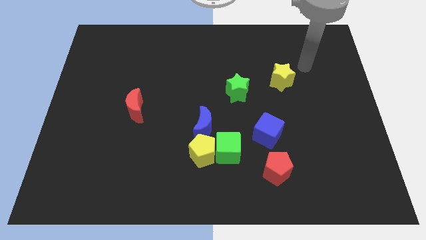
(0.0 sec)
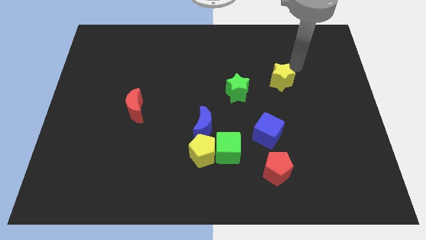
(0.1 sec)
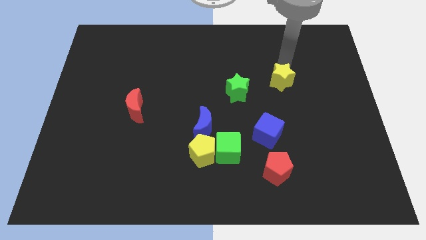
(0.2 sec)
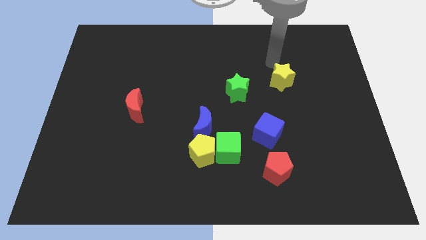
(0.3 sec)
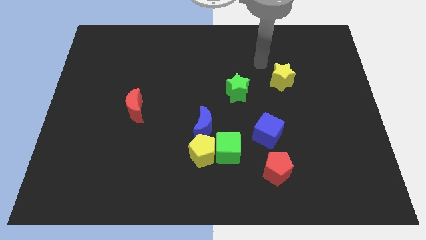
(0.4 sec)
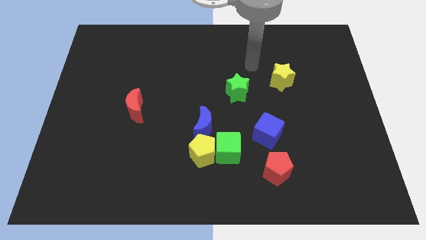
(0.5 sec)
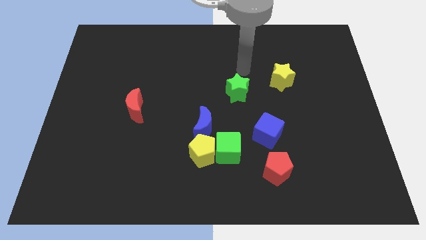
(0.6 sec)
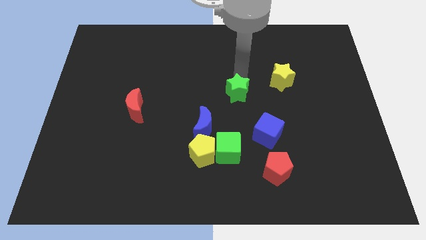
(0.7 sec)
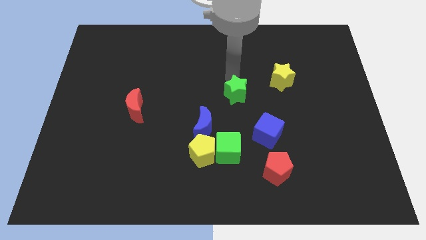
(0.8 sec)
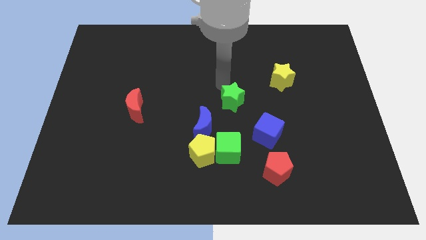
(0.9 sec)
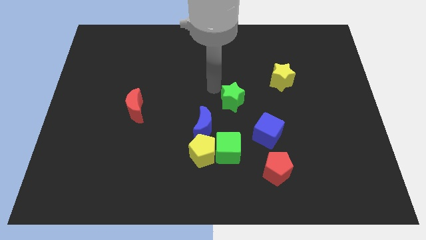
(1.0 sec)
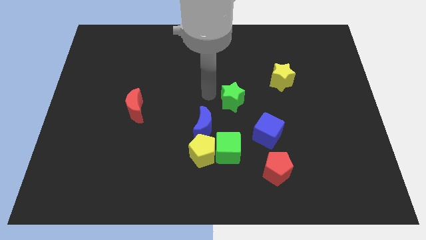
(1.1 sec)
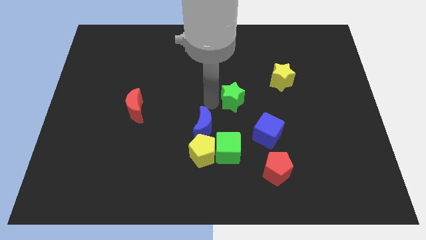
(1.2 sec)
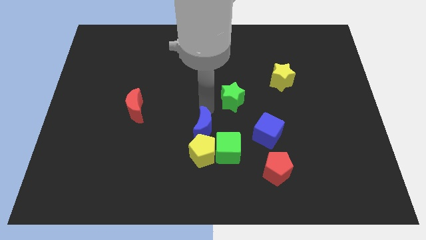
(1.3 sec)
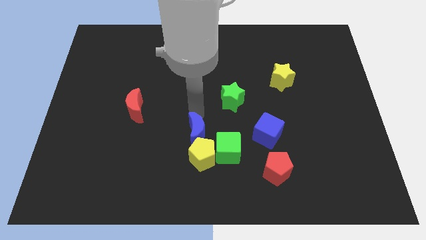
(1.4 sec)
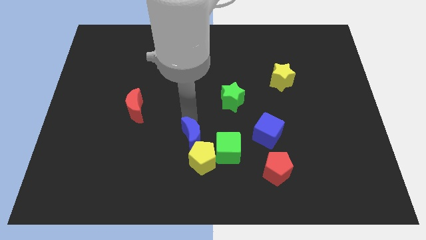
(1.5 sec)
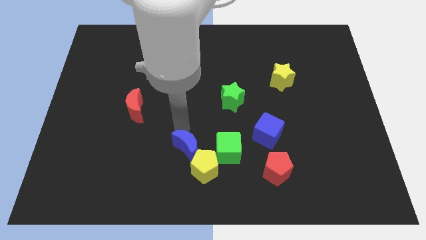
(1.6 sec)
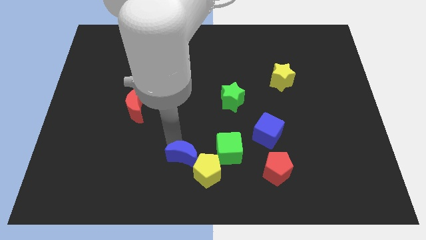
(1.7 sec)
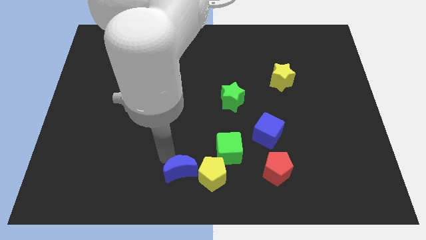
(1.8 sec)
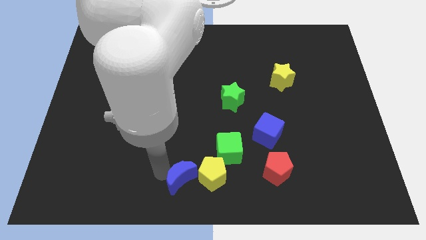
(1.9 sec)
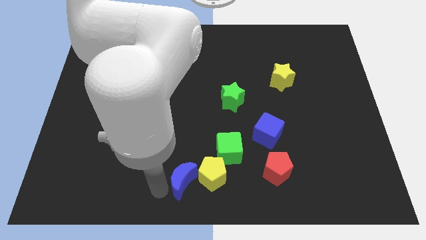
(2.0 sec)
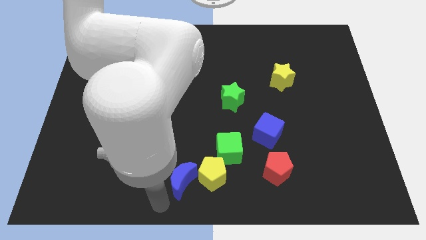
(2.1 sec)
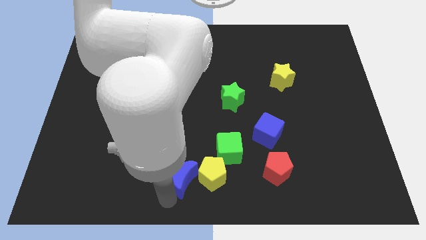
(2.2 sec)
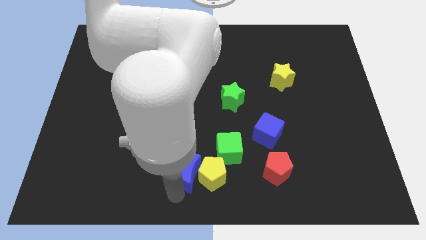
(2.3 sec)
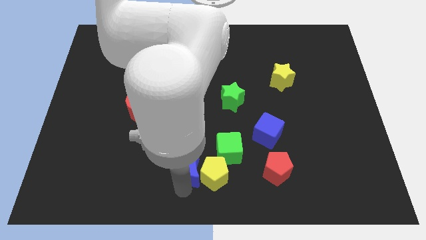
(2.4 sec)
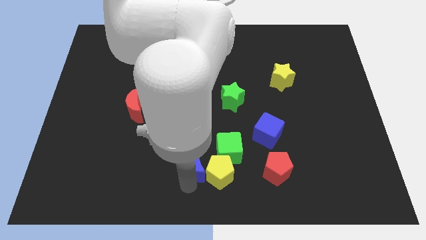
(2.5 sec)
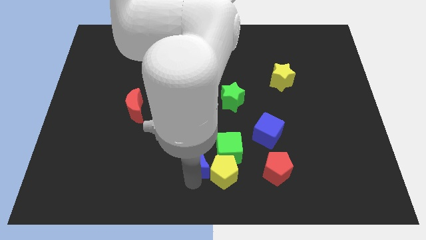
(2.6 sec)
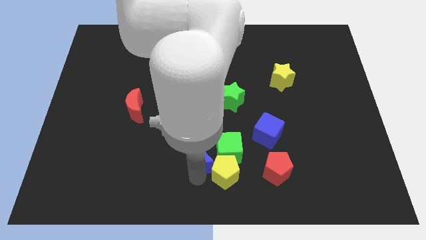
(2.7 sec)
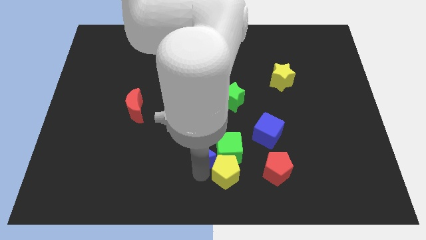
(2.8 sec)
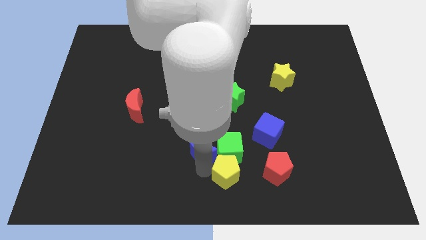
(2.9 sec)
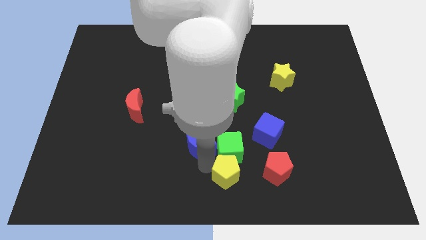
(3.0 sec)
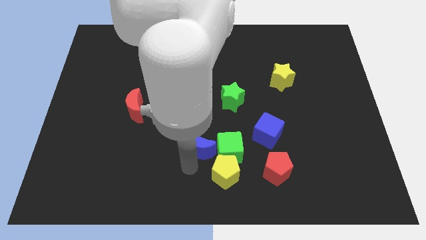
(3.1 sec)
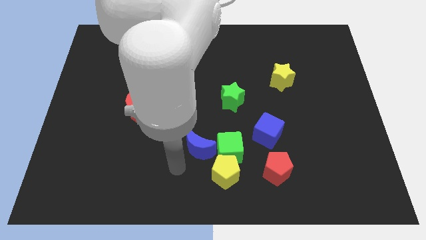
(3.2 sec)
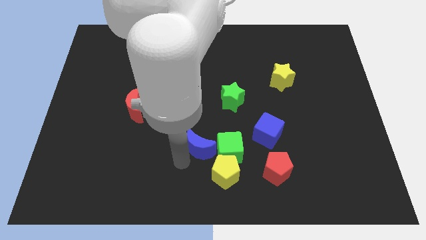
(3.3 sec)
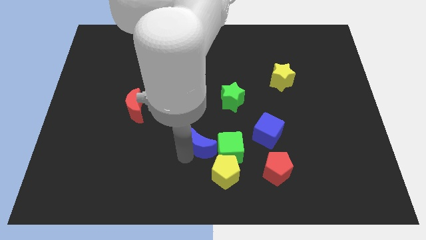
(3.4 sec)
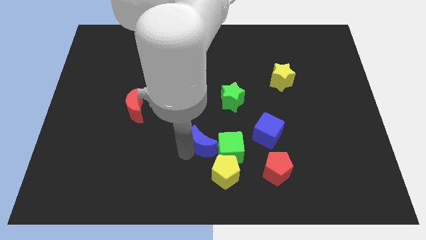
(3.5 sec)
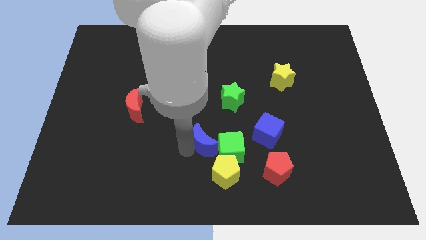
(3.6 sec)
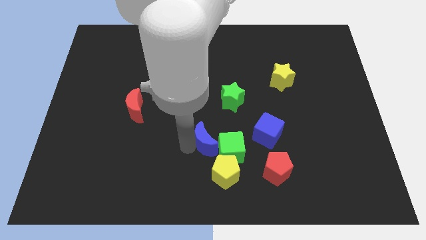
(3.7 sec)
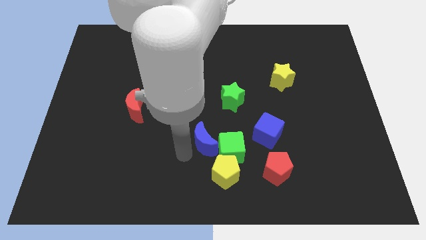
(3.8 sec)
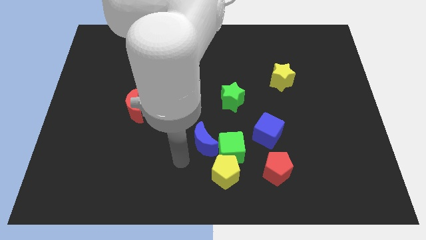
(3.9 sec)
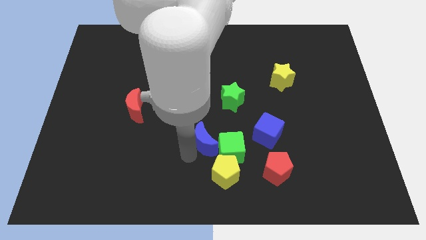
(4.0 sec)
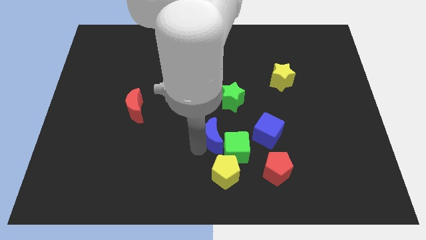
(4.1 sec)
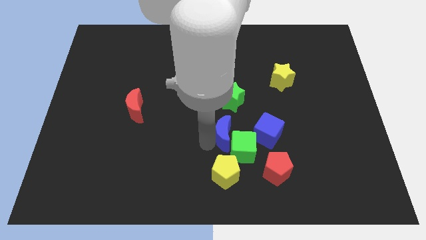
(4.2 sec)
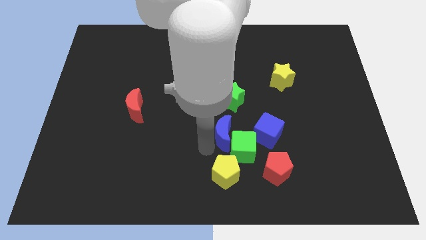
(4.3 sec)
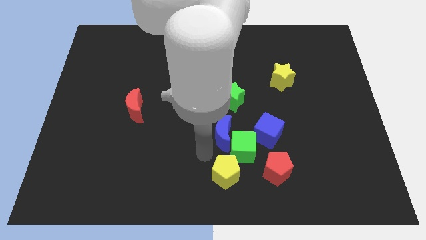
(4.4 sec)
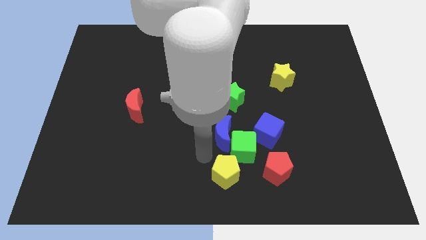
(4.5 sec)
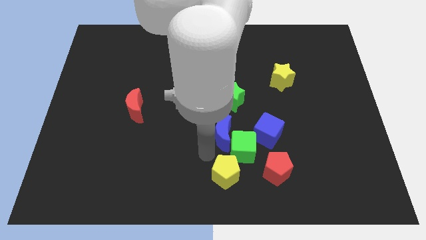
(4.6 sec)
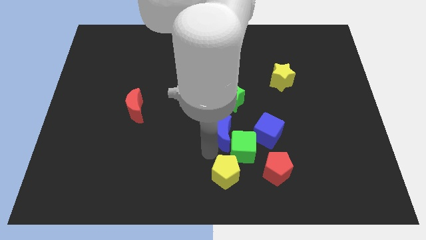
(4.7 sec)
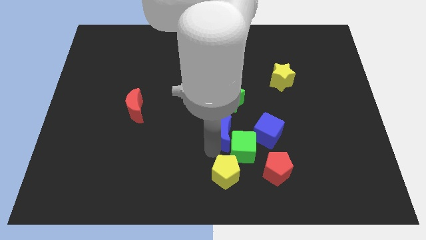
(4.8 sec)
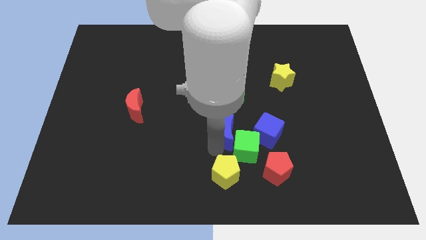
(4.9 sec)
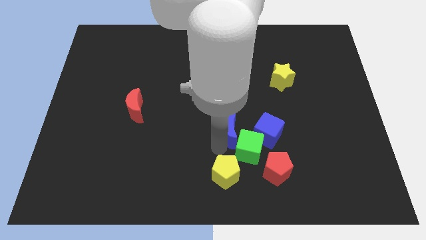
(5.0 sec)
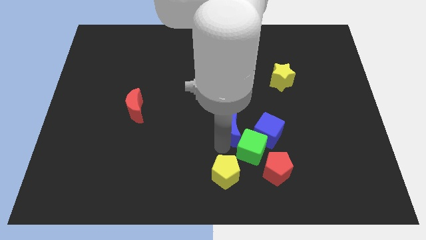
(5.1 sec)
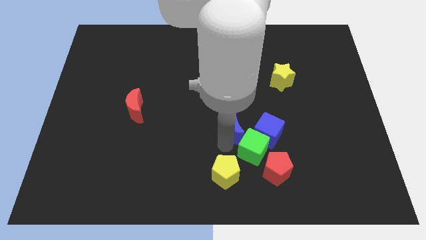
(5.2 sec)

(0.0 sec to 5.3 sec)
push the blue moon diagonally up and to the left of the blue cube

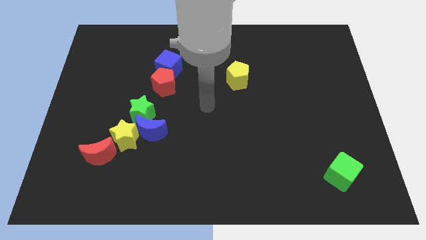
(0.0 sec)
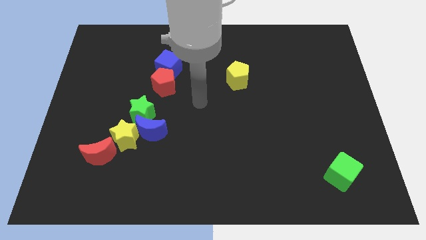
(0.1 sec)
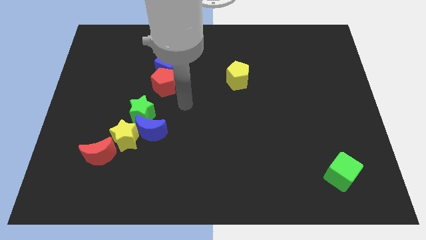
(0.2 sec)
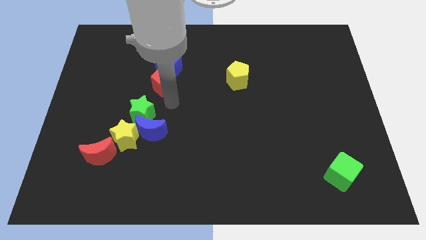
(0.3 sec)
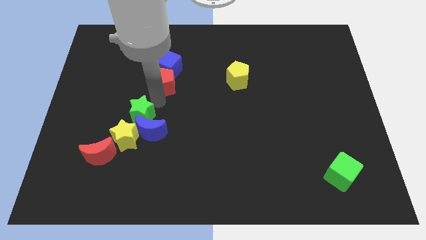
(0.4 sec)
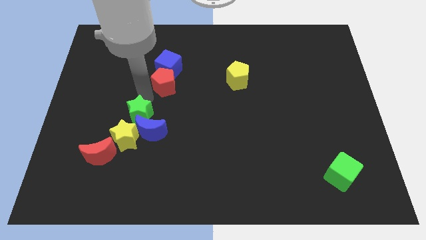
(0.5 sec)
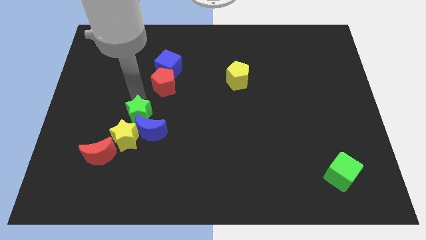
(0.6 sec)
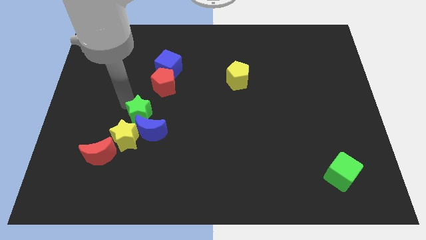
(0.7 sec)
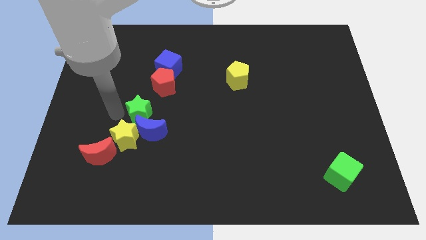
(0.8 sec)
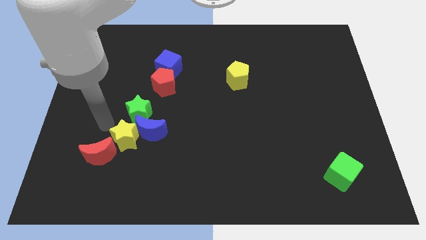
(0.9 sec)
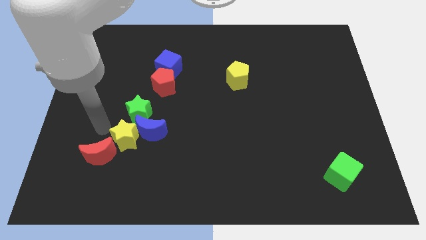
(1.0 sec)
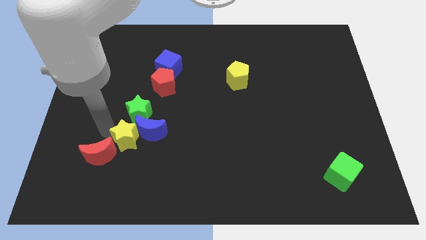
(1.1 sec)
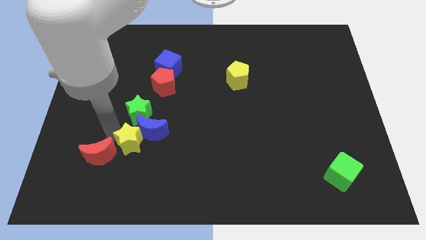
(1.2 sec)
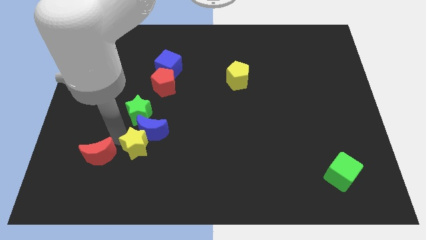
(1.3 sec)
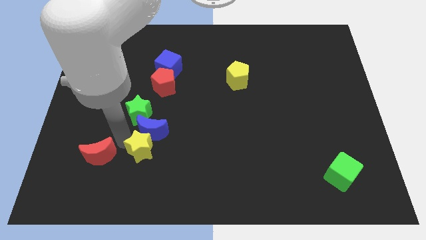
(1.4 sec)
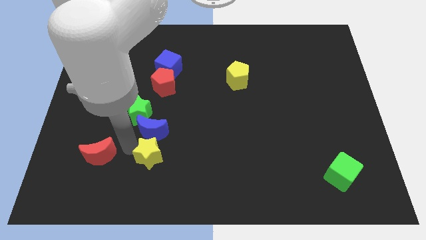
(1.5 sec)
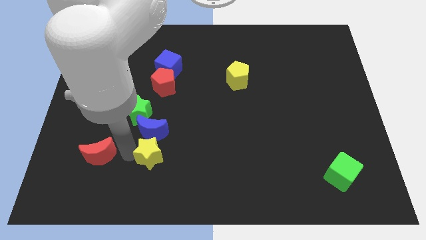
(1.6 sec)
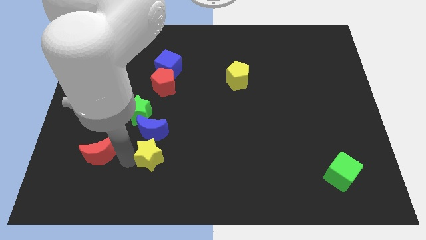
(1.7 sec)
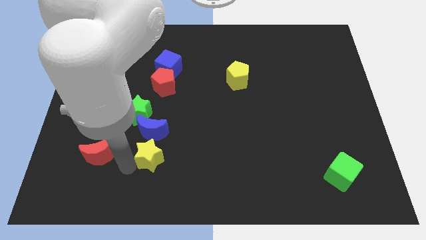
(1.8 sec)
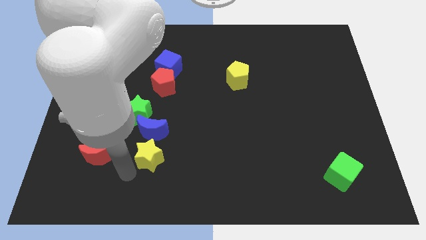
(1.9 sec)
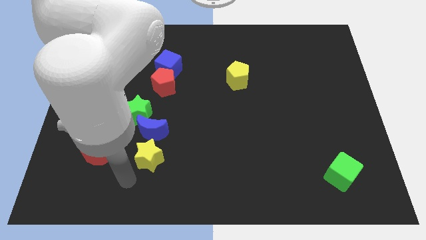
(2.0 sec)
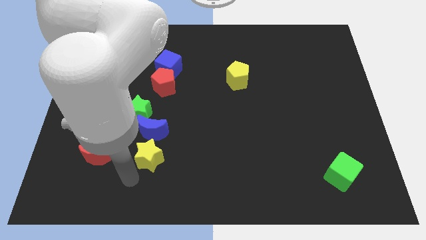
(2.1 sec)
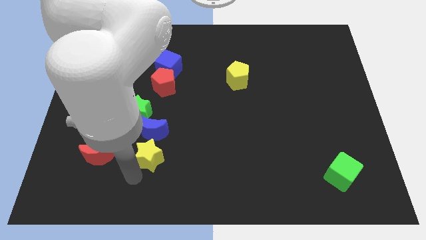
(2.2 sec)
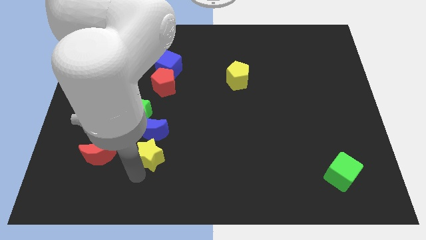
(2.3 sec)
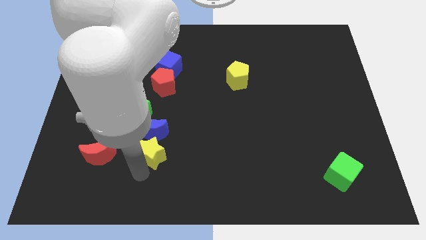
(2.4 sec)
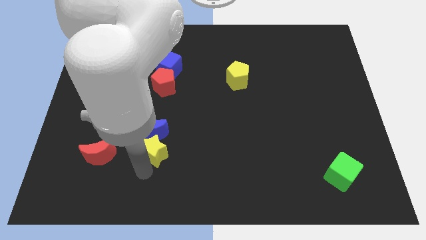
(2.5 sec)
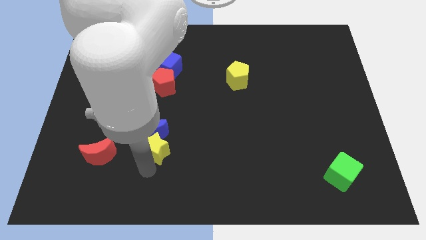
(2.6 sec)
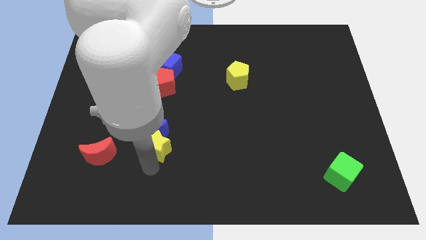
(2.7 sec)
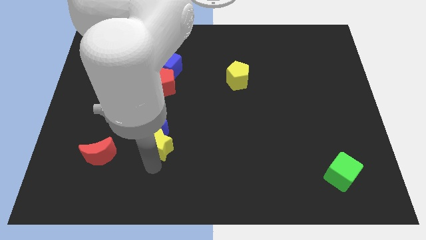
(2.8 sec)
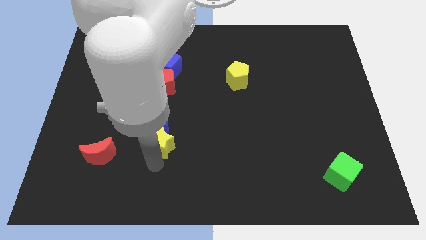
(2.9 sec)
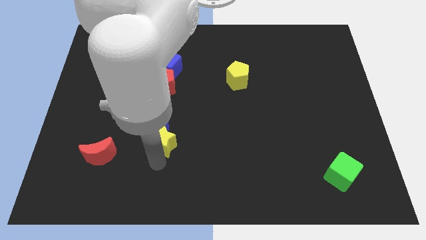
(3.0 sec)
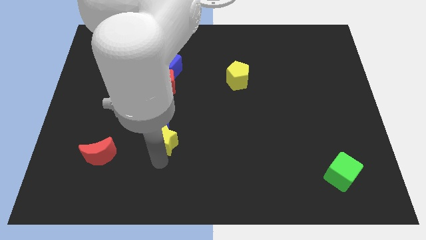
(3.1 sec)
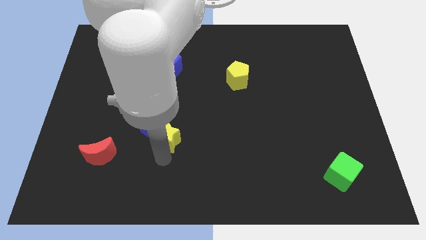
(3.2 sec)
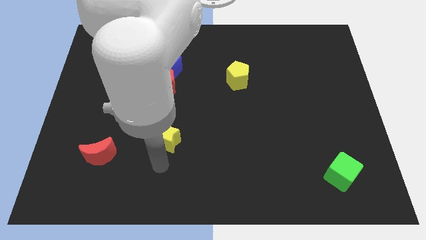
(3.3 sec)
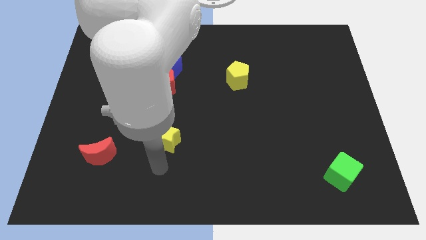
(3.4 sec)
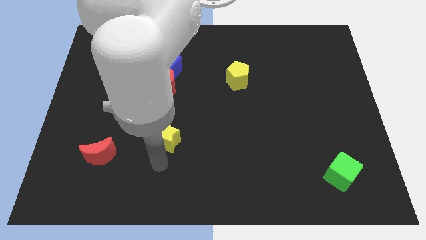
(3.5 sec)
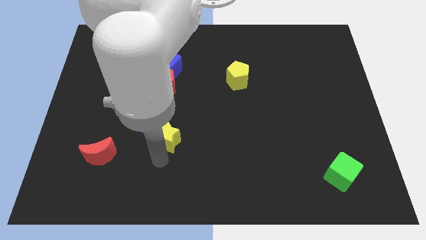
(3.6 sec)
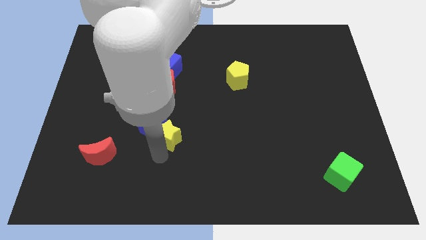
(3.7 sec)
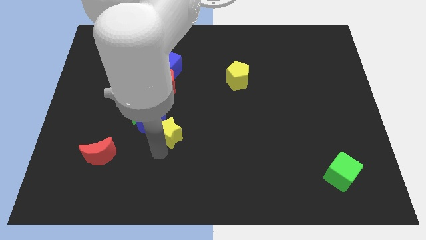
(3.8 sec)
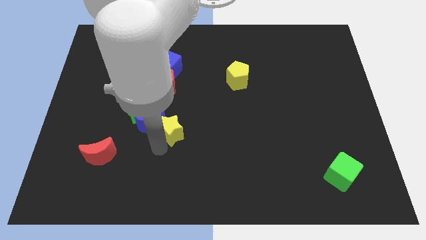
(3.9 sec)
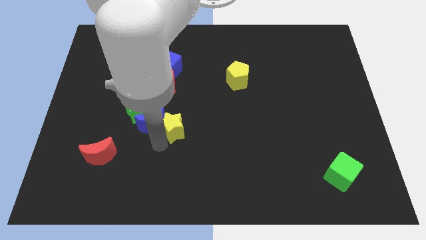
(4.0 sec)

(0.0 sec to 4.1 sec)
put the yellow star to the top right of the blue moon
